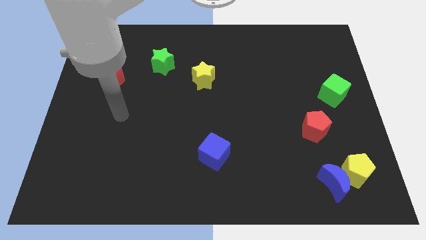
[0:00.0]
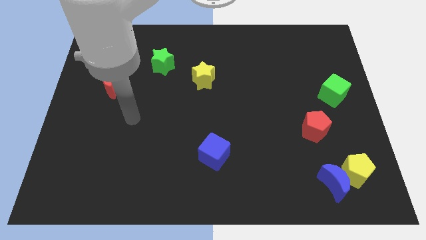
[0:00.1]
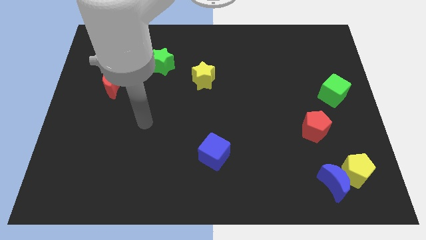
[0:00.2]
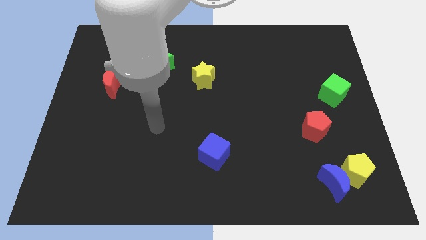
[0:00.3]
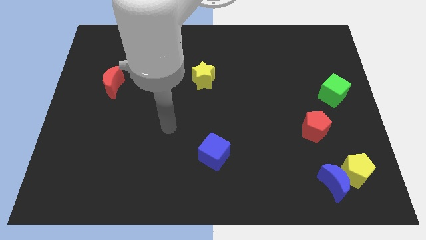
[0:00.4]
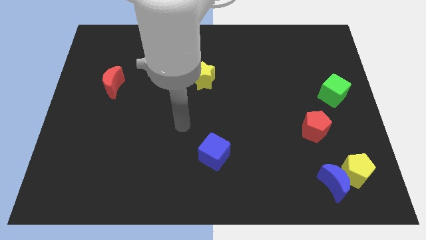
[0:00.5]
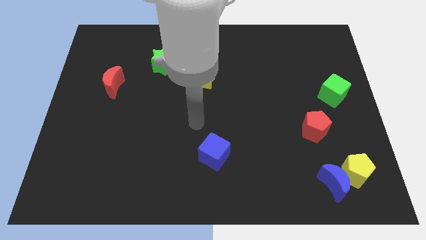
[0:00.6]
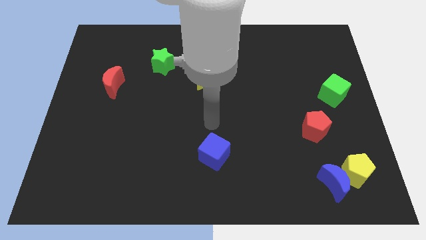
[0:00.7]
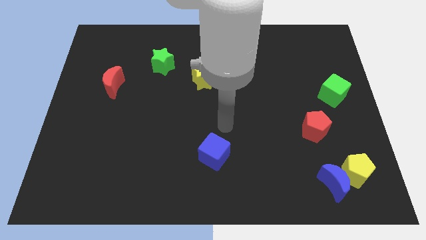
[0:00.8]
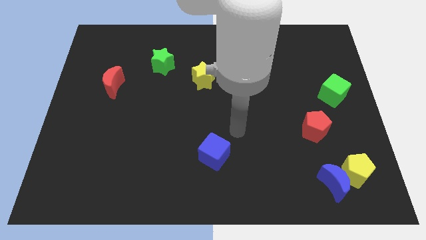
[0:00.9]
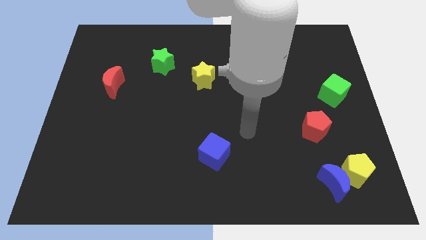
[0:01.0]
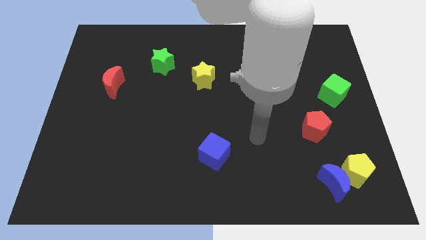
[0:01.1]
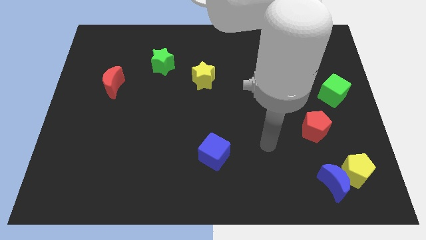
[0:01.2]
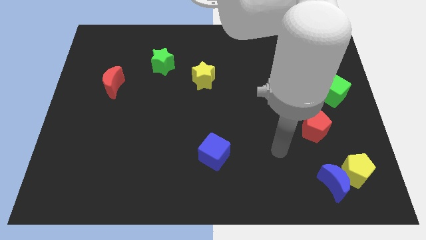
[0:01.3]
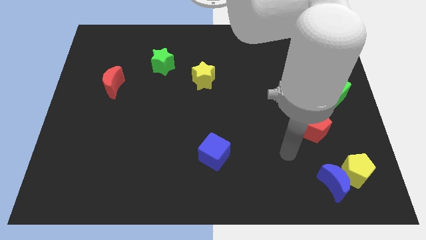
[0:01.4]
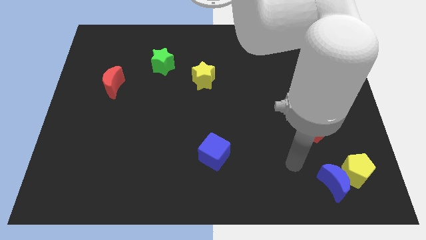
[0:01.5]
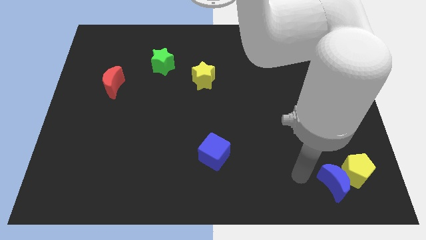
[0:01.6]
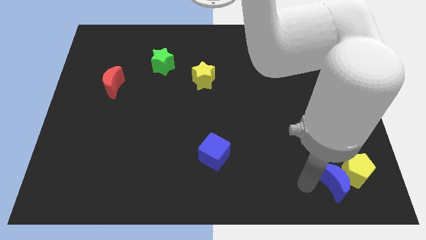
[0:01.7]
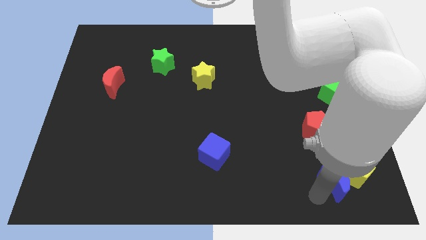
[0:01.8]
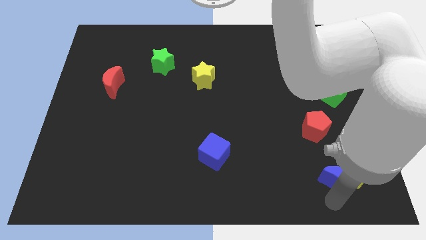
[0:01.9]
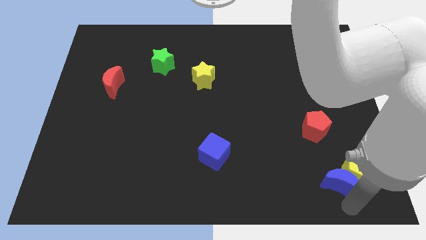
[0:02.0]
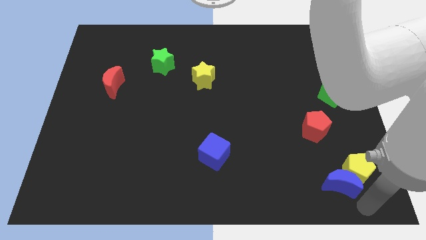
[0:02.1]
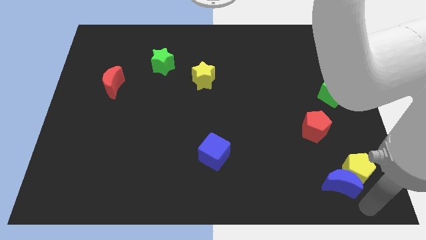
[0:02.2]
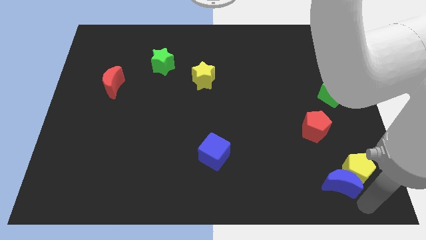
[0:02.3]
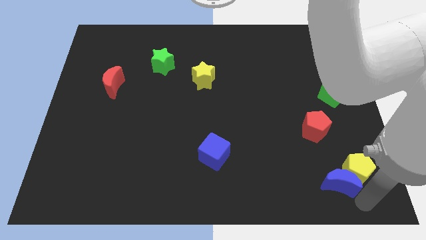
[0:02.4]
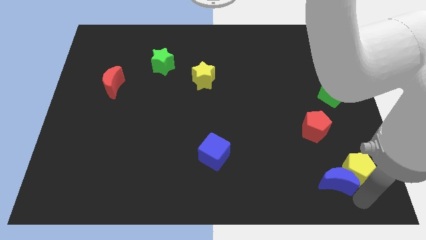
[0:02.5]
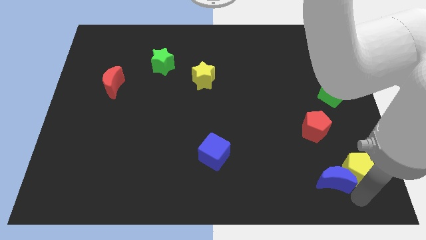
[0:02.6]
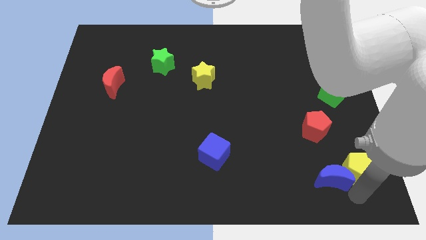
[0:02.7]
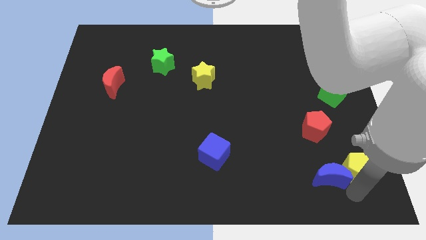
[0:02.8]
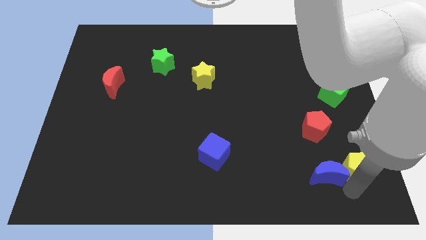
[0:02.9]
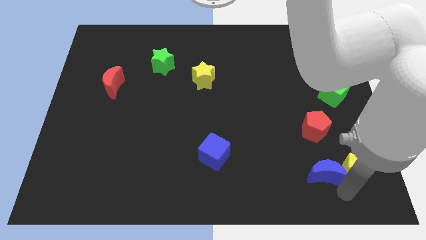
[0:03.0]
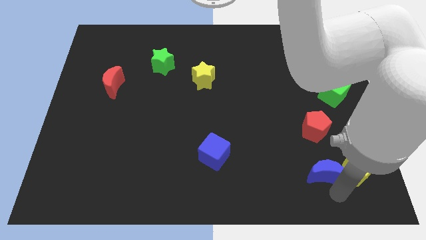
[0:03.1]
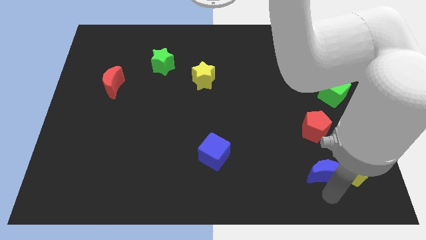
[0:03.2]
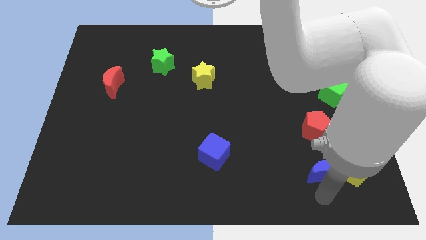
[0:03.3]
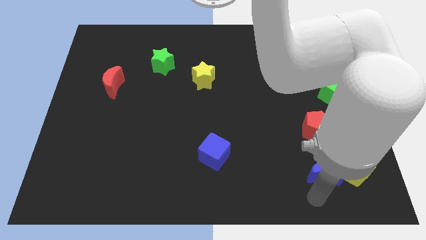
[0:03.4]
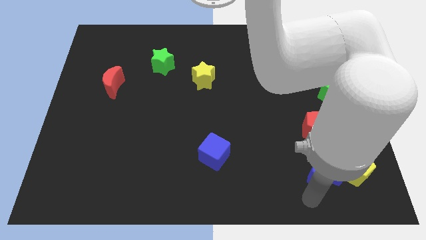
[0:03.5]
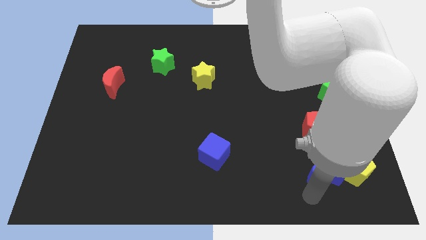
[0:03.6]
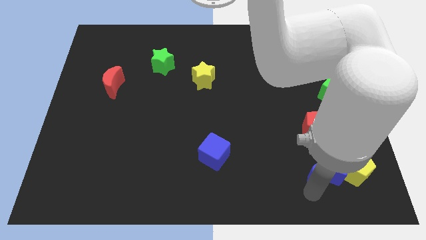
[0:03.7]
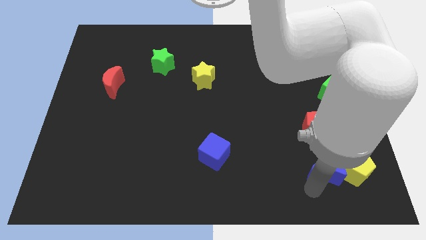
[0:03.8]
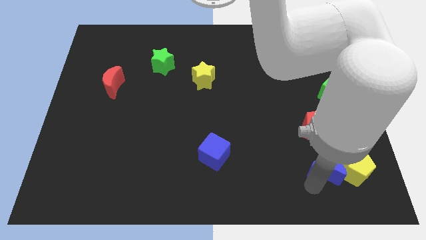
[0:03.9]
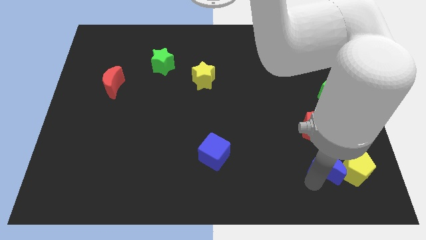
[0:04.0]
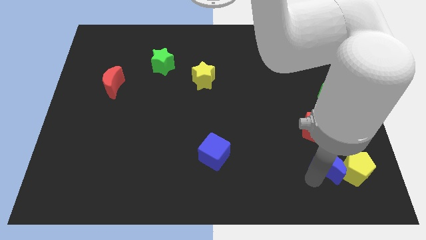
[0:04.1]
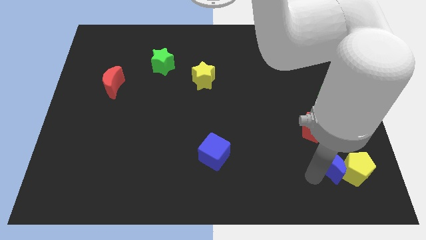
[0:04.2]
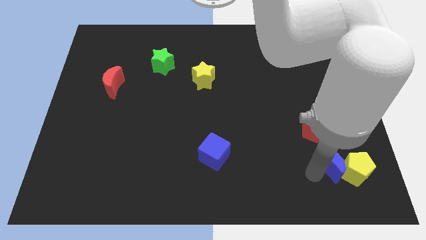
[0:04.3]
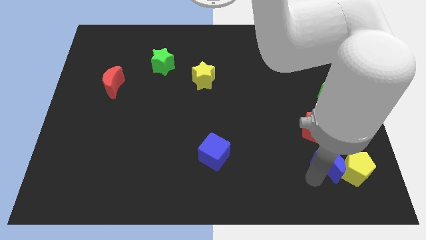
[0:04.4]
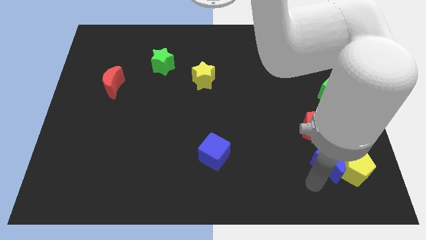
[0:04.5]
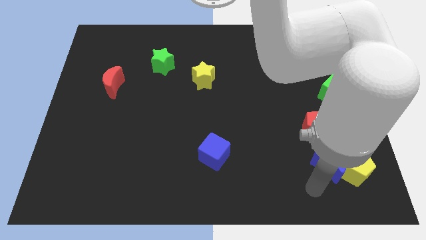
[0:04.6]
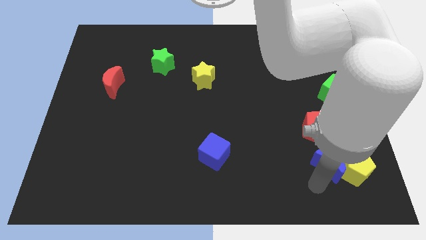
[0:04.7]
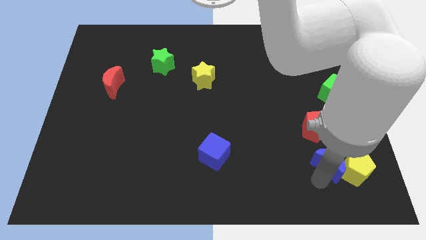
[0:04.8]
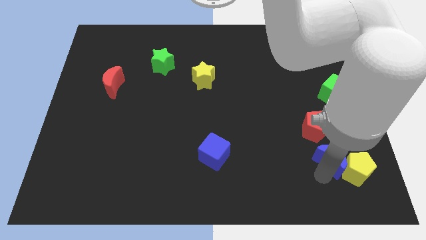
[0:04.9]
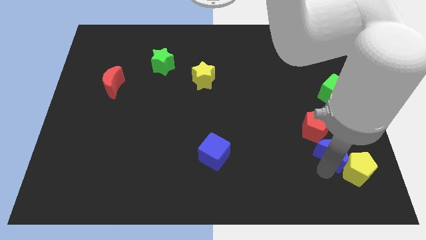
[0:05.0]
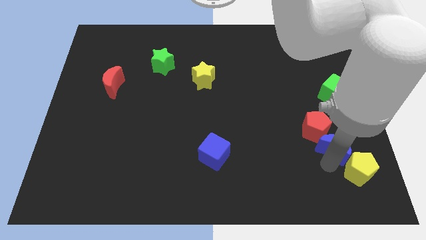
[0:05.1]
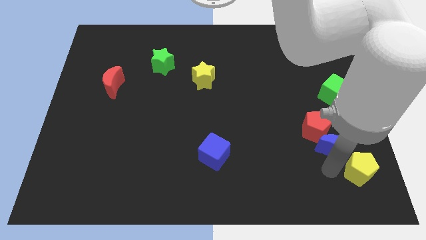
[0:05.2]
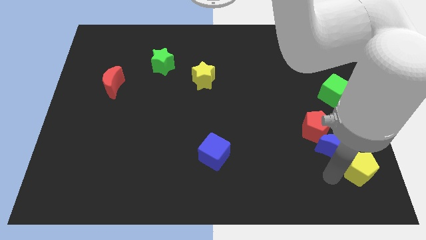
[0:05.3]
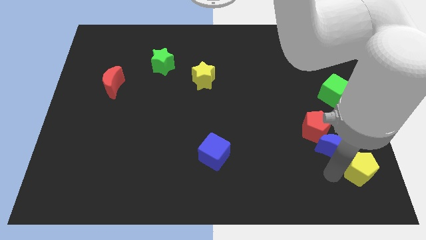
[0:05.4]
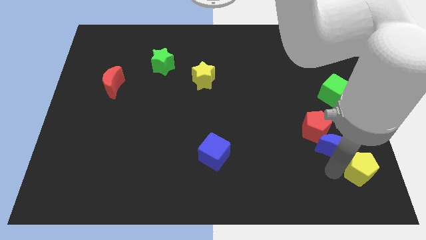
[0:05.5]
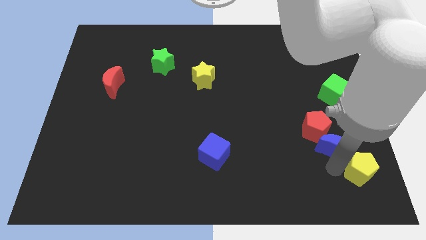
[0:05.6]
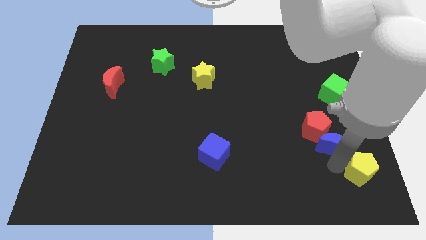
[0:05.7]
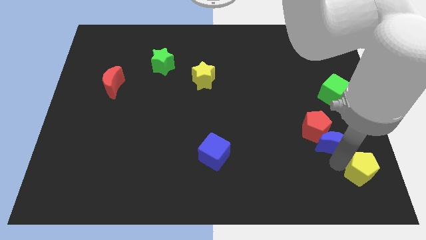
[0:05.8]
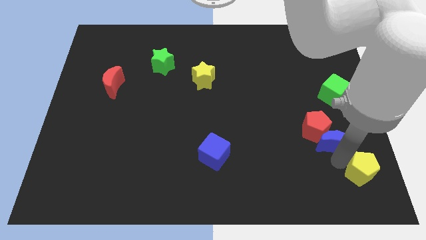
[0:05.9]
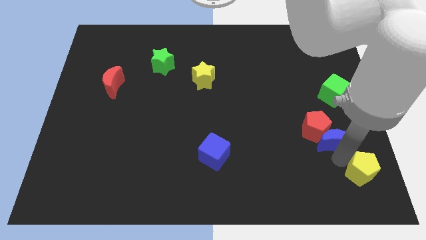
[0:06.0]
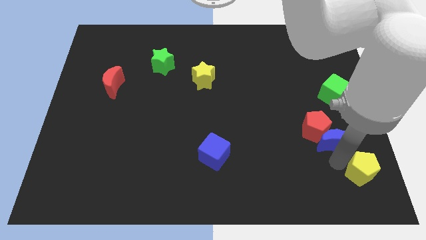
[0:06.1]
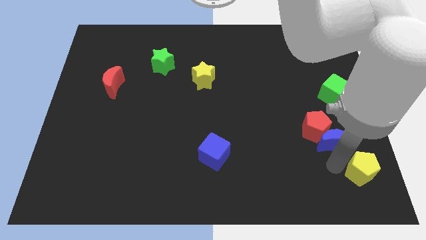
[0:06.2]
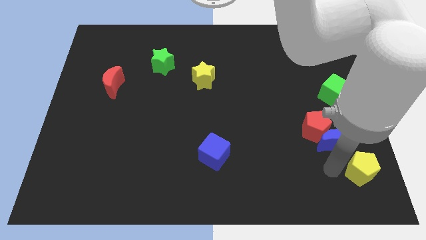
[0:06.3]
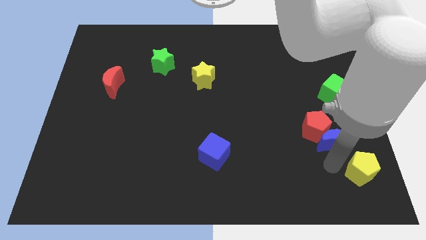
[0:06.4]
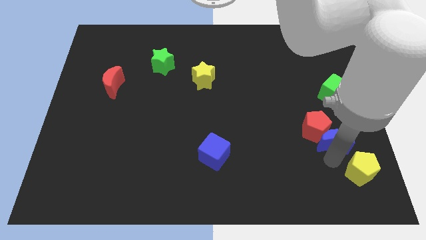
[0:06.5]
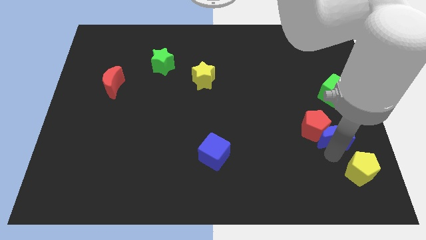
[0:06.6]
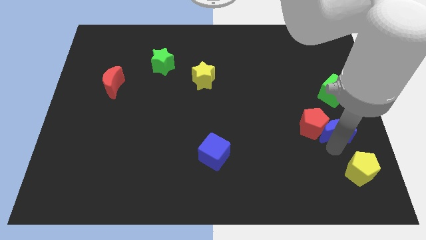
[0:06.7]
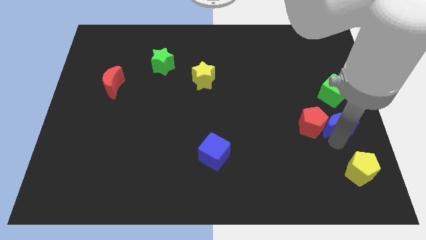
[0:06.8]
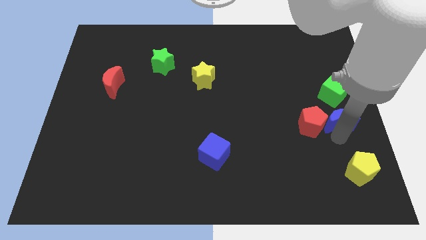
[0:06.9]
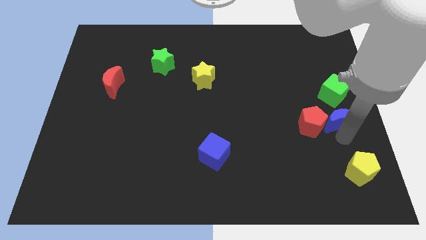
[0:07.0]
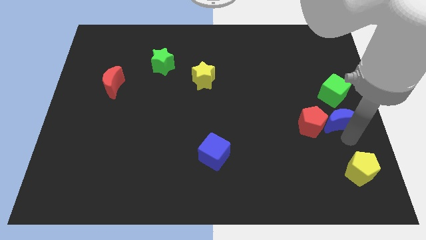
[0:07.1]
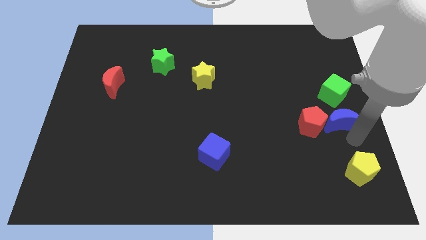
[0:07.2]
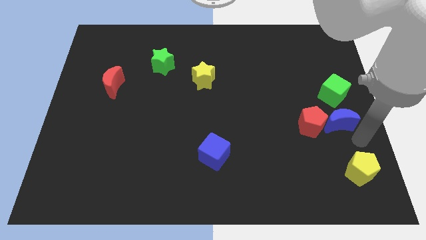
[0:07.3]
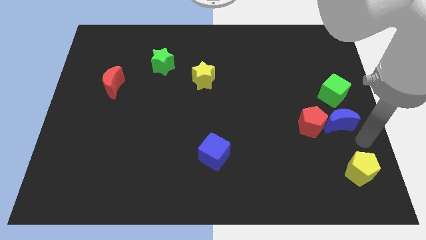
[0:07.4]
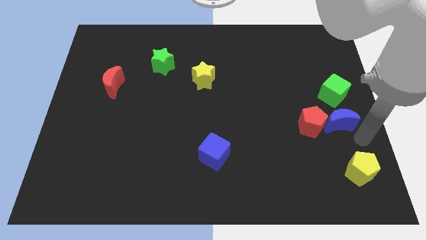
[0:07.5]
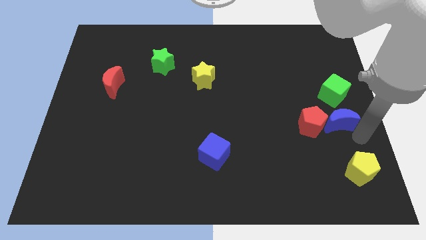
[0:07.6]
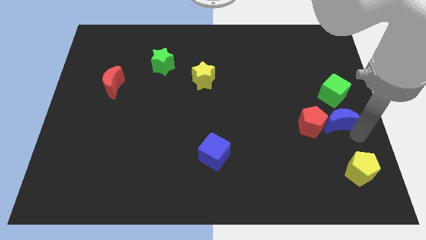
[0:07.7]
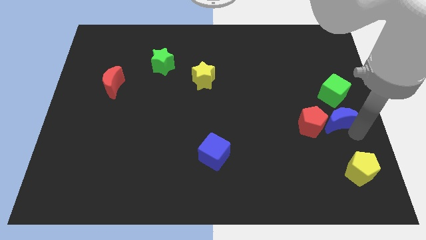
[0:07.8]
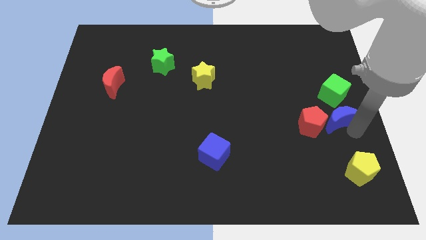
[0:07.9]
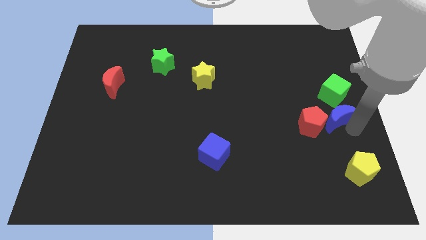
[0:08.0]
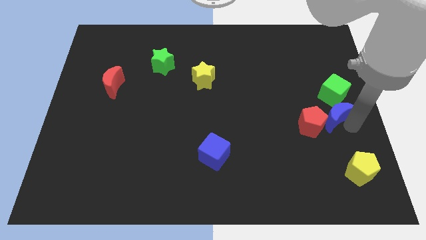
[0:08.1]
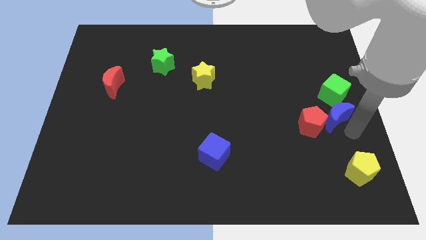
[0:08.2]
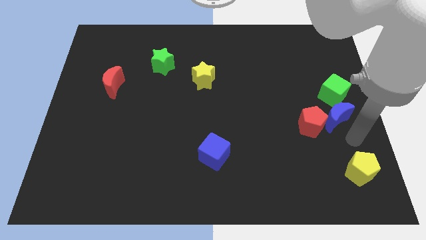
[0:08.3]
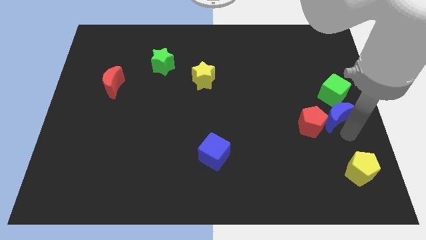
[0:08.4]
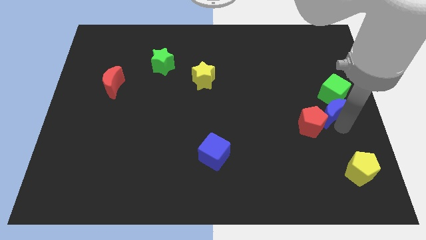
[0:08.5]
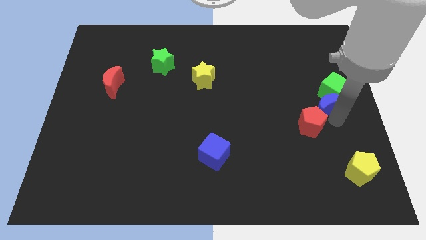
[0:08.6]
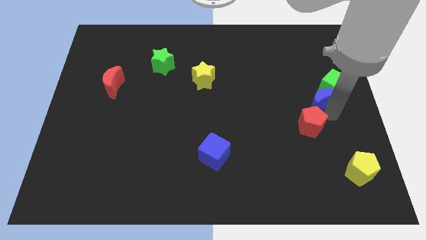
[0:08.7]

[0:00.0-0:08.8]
move the blue moon upwards
